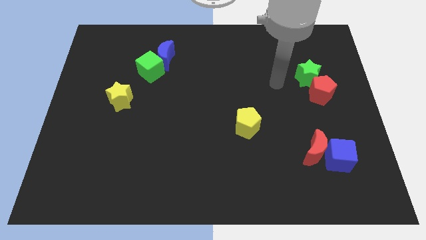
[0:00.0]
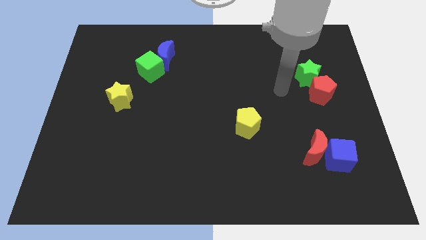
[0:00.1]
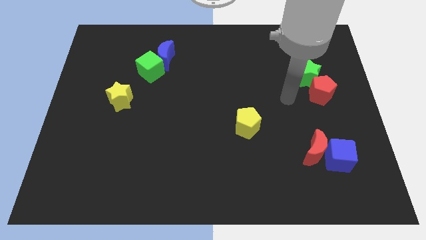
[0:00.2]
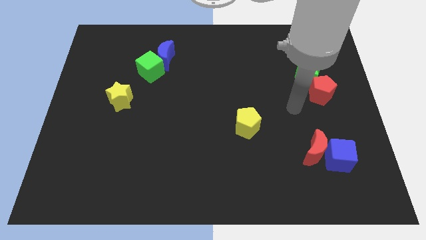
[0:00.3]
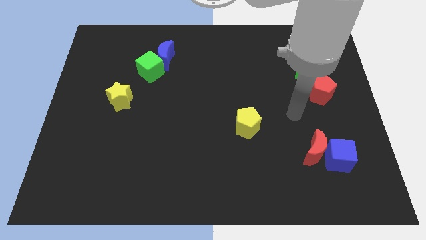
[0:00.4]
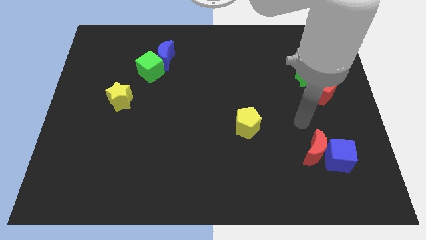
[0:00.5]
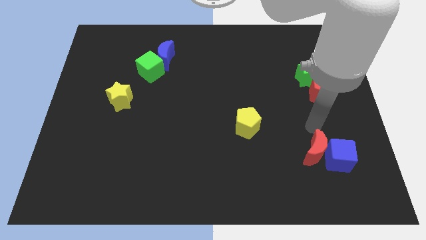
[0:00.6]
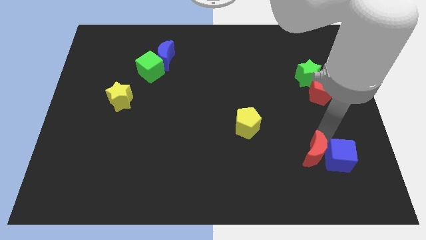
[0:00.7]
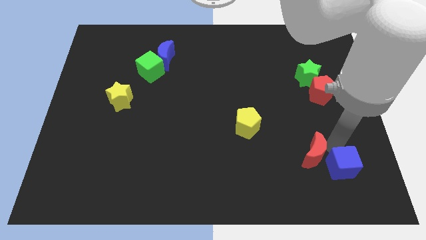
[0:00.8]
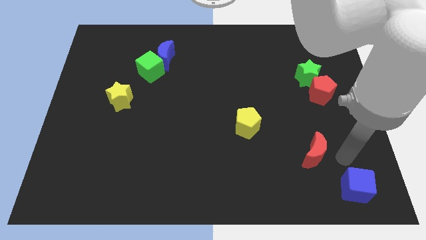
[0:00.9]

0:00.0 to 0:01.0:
move the red moon away from the blue cube

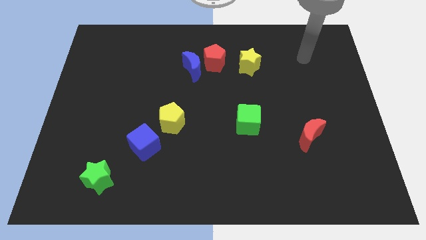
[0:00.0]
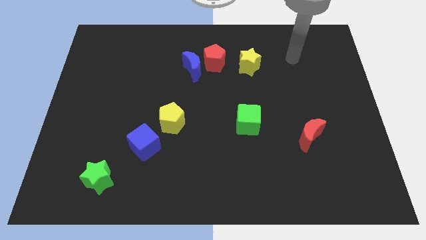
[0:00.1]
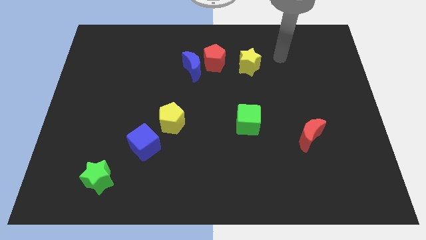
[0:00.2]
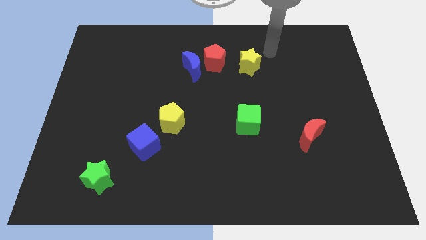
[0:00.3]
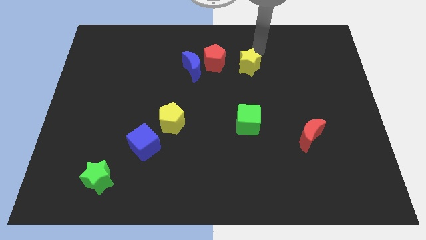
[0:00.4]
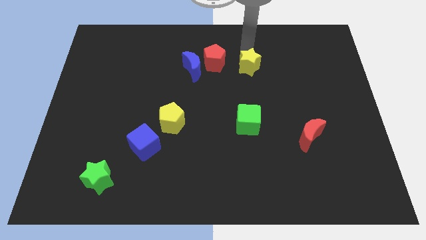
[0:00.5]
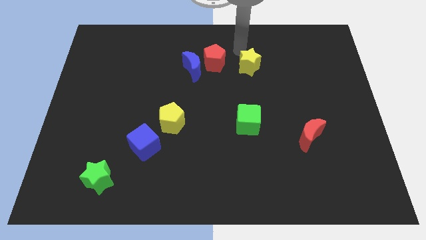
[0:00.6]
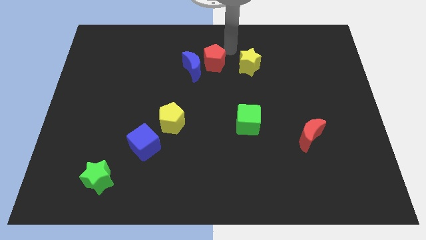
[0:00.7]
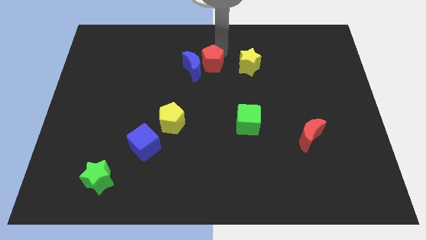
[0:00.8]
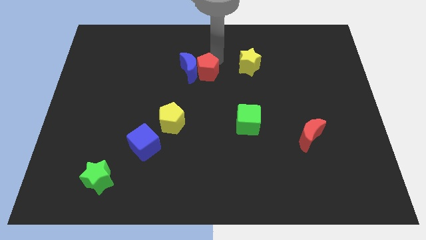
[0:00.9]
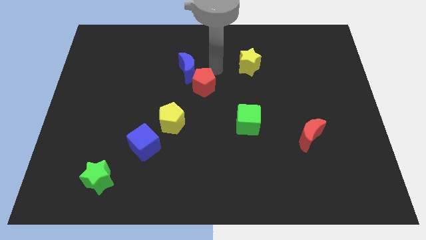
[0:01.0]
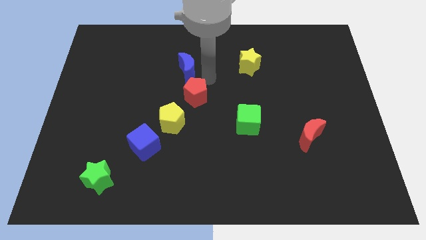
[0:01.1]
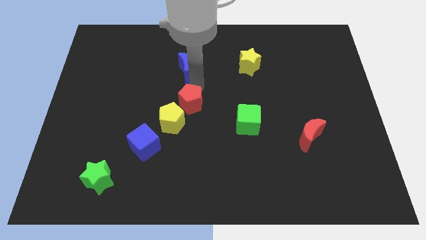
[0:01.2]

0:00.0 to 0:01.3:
separate the blue moon from the red pentagon

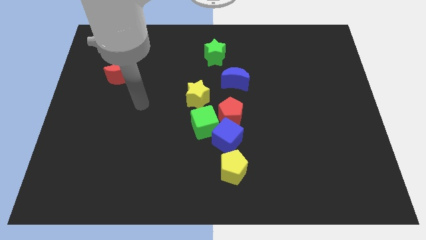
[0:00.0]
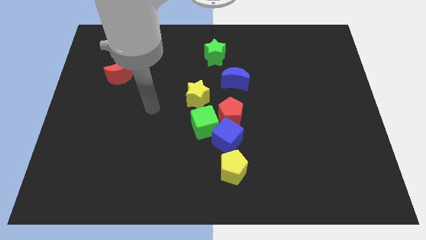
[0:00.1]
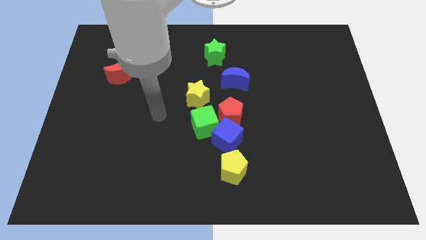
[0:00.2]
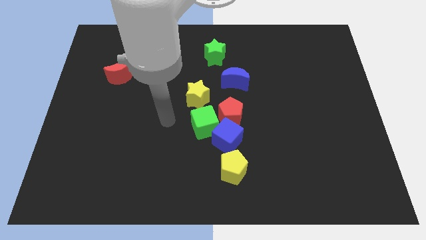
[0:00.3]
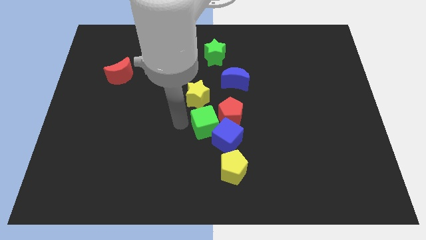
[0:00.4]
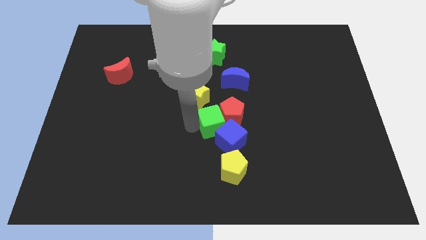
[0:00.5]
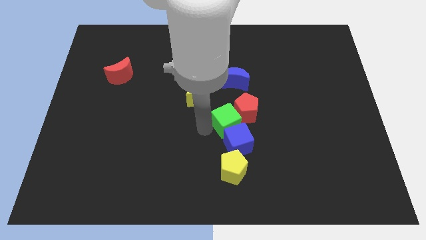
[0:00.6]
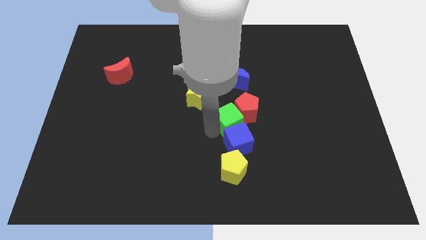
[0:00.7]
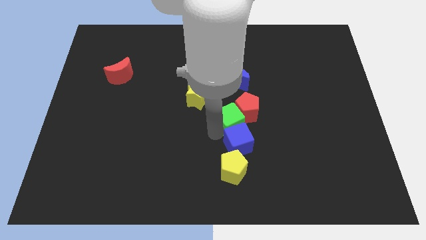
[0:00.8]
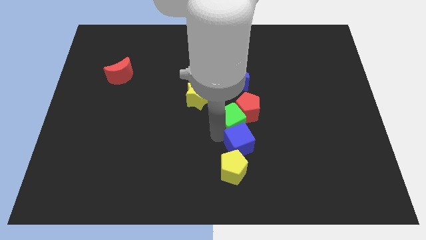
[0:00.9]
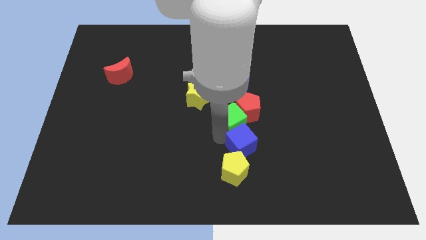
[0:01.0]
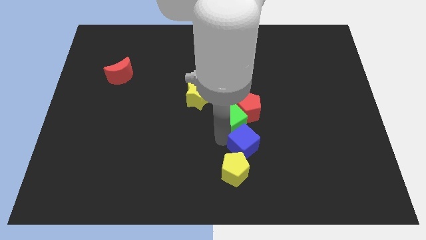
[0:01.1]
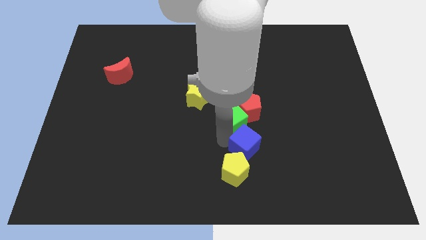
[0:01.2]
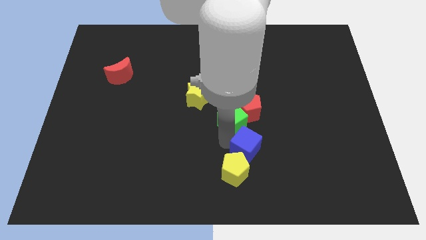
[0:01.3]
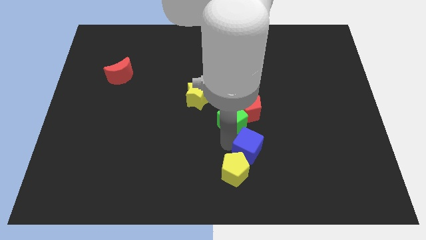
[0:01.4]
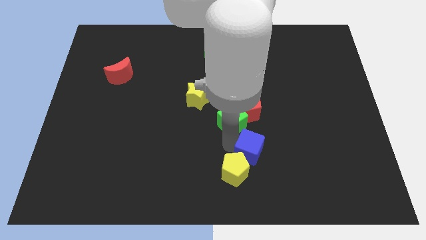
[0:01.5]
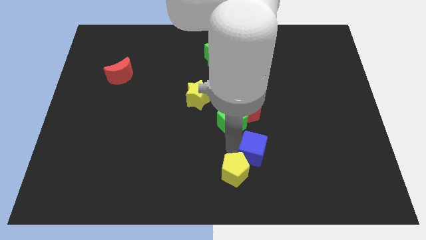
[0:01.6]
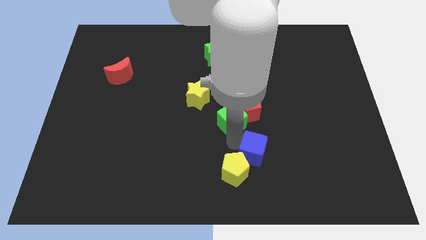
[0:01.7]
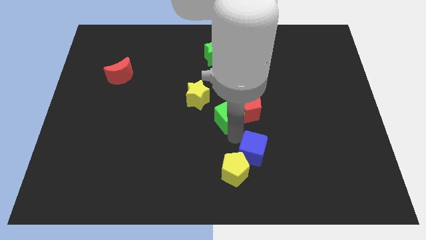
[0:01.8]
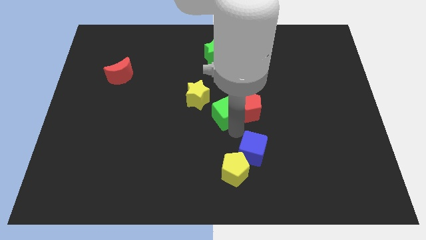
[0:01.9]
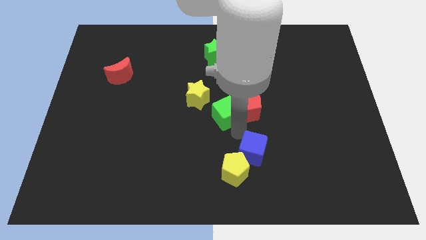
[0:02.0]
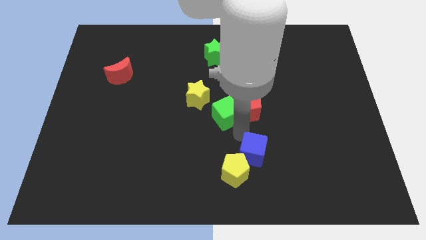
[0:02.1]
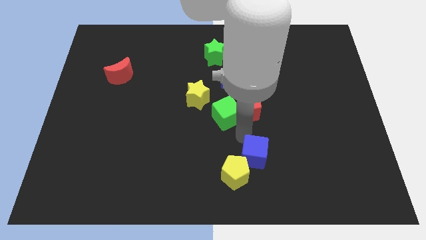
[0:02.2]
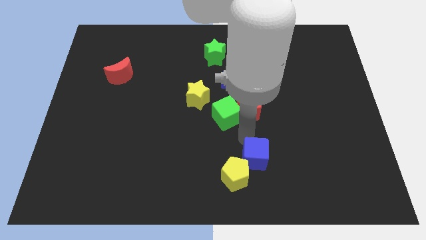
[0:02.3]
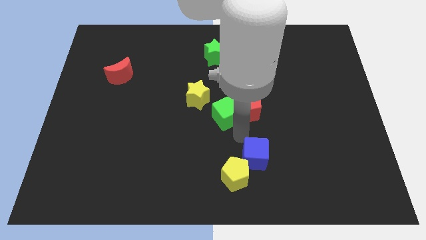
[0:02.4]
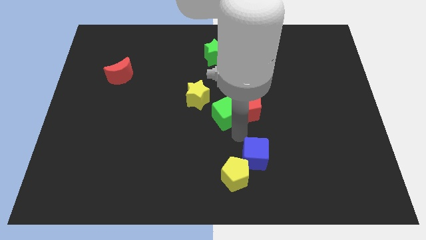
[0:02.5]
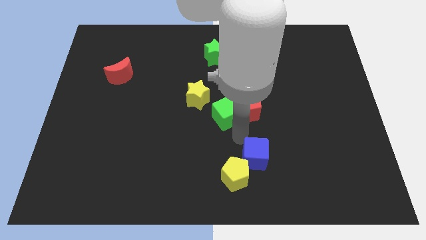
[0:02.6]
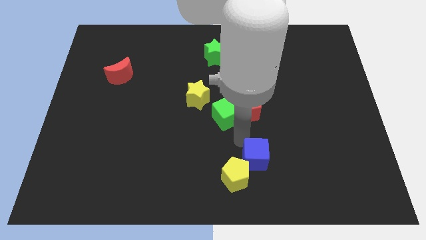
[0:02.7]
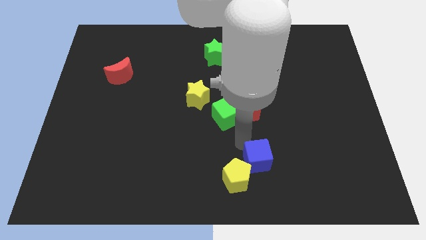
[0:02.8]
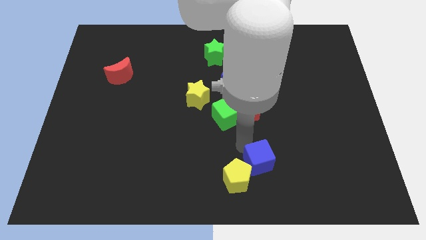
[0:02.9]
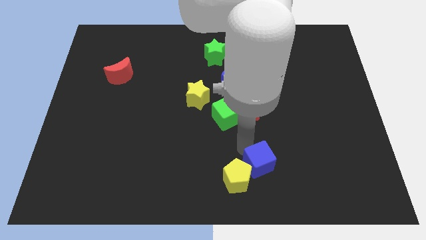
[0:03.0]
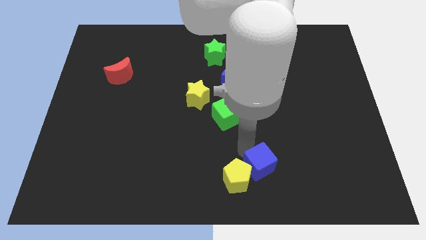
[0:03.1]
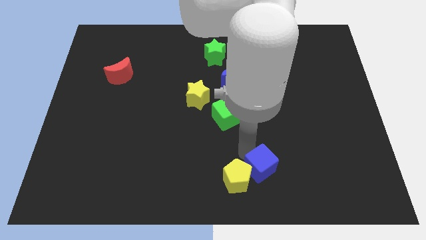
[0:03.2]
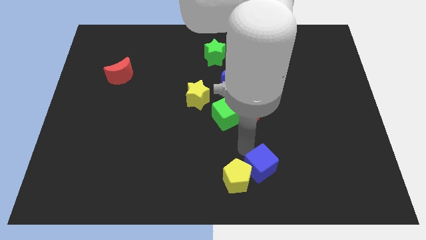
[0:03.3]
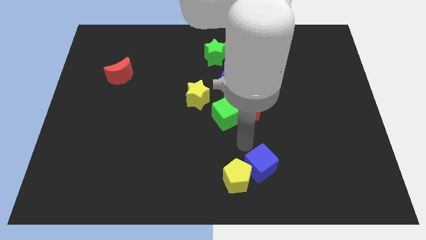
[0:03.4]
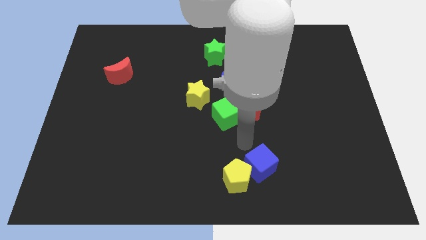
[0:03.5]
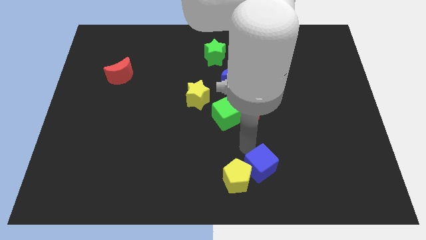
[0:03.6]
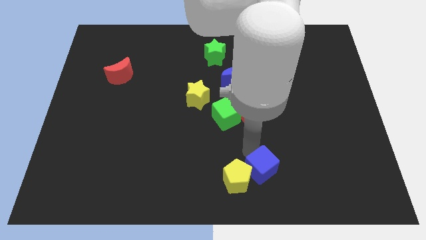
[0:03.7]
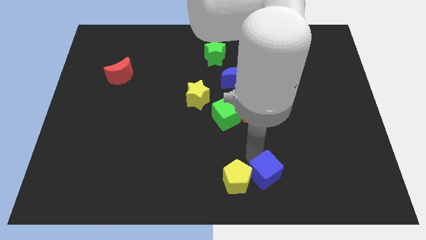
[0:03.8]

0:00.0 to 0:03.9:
move the blue cube away from the clump

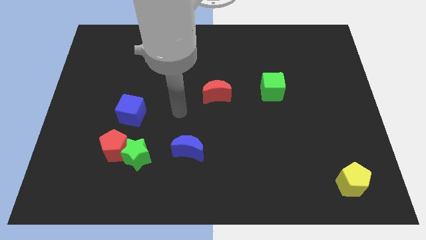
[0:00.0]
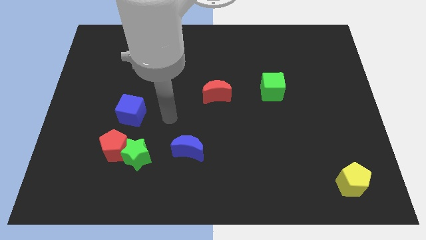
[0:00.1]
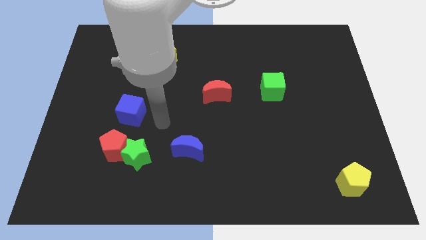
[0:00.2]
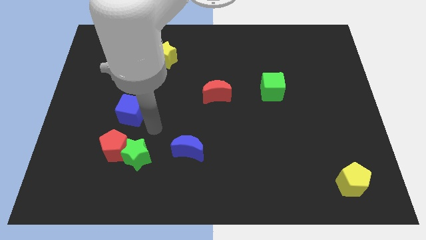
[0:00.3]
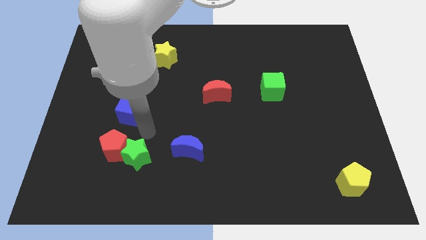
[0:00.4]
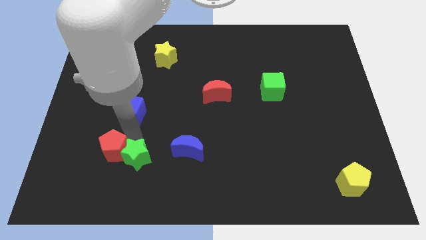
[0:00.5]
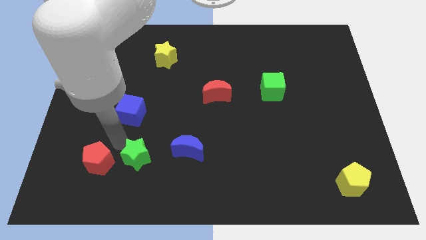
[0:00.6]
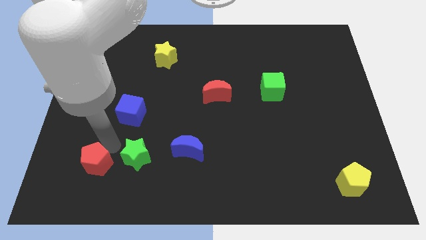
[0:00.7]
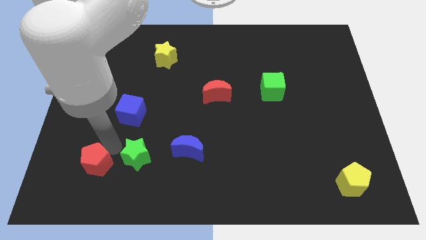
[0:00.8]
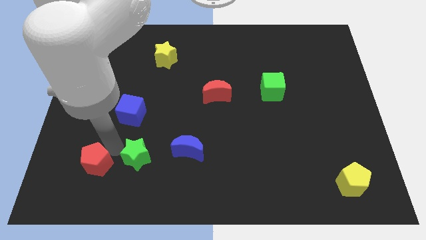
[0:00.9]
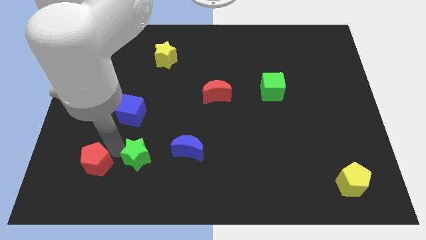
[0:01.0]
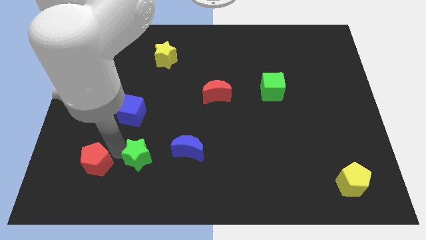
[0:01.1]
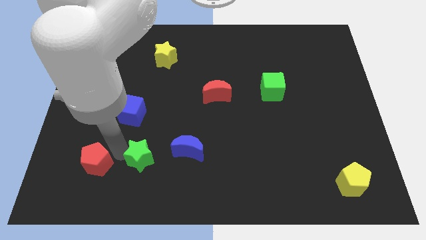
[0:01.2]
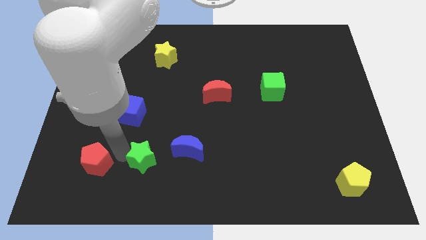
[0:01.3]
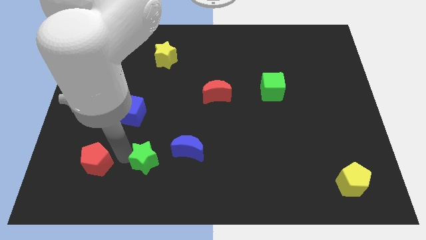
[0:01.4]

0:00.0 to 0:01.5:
move the green star away from the red pentagon

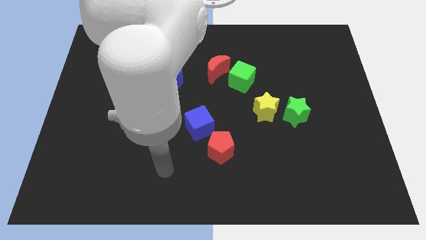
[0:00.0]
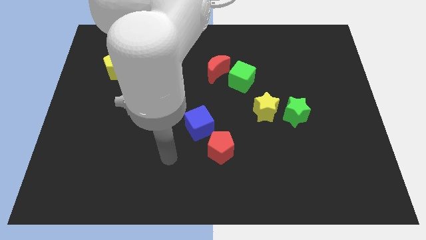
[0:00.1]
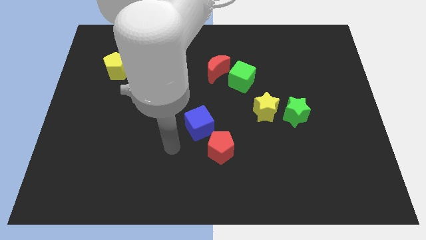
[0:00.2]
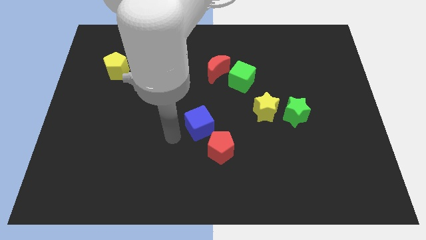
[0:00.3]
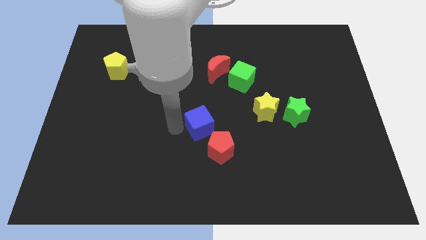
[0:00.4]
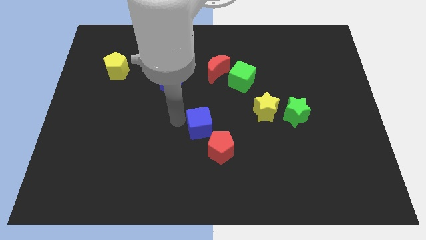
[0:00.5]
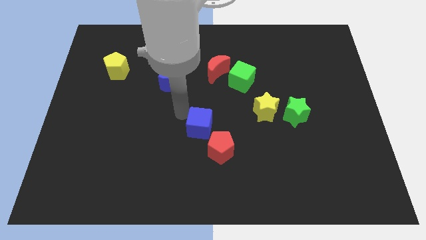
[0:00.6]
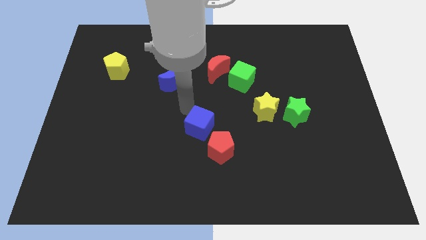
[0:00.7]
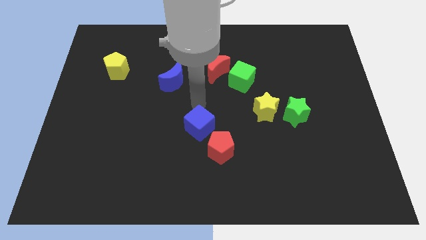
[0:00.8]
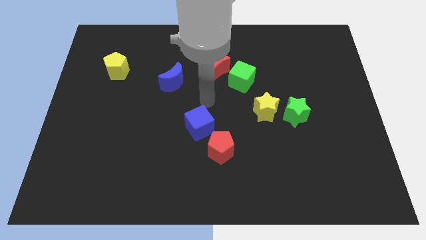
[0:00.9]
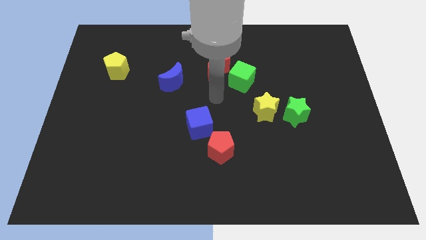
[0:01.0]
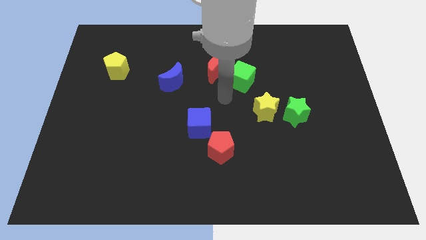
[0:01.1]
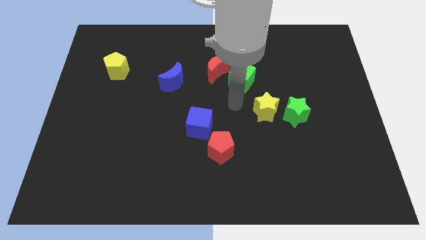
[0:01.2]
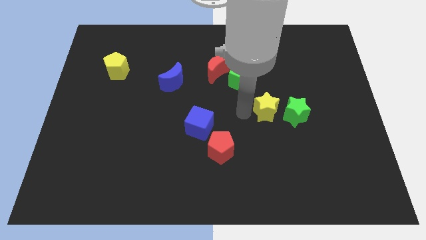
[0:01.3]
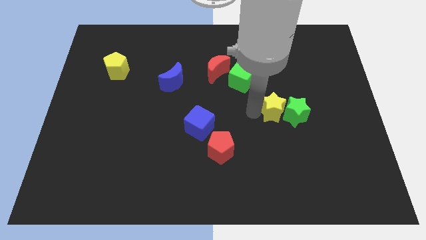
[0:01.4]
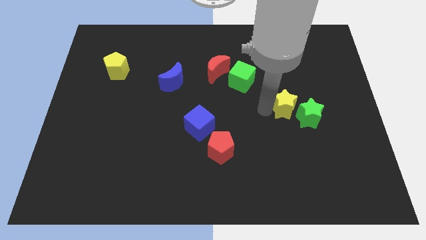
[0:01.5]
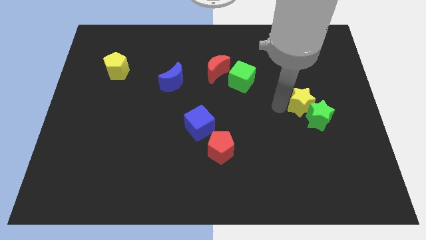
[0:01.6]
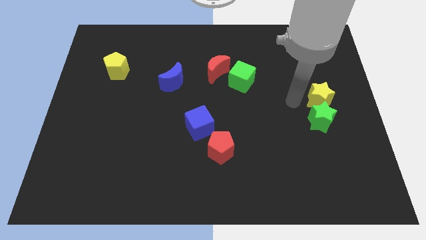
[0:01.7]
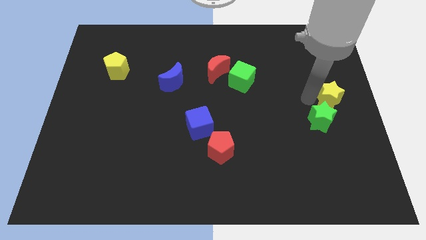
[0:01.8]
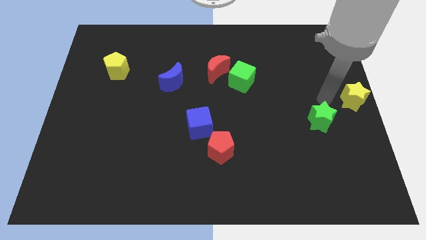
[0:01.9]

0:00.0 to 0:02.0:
move the green star away from the yellow star
